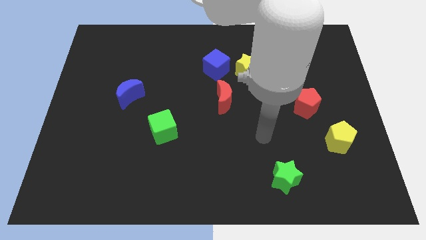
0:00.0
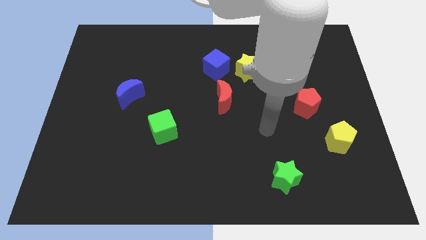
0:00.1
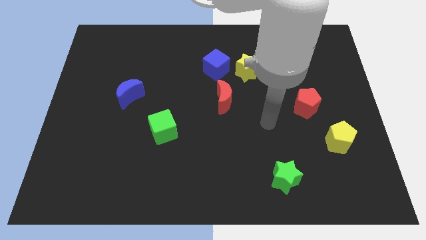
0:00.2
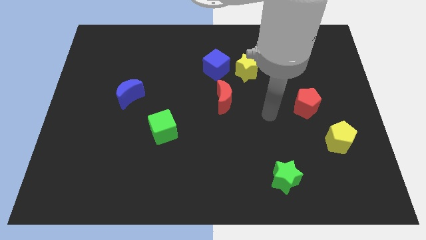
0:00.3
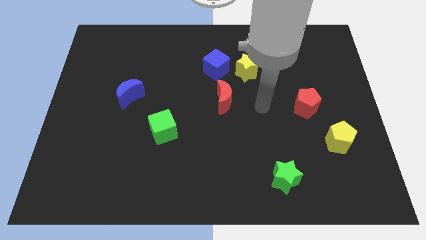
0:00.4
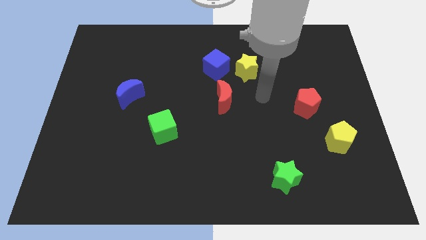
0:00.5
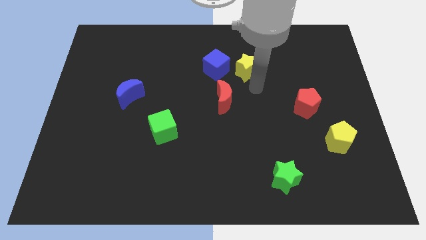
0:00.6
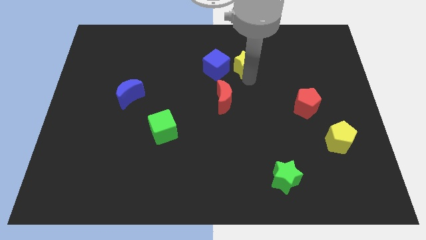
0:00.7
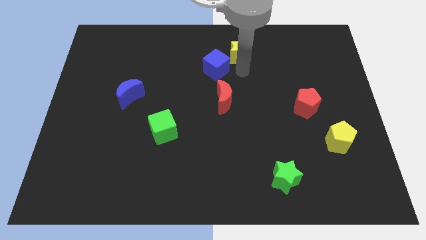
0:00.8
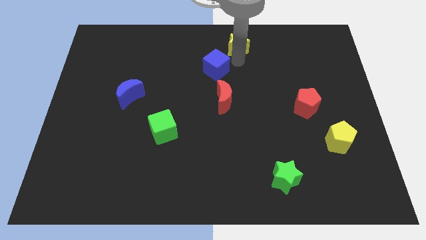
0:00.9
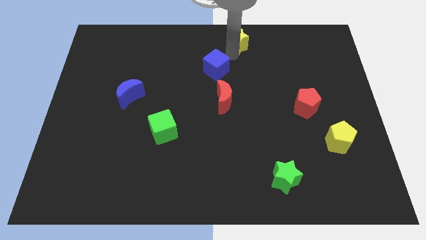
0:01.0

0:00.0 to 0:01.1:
pull the blue cube apart from the yellow star

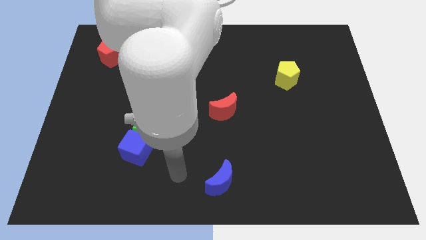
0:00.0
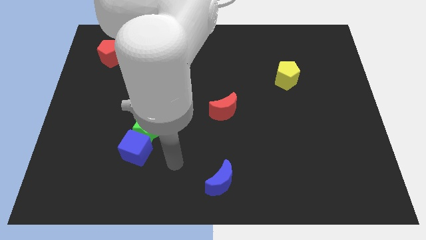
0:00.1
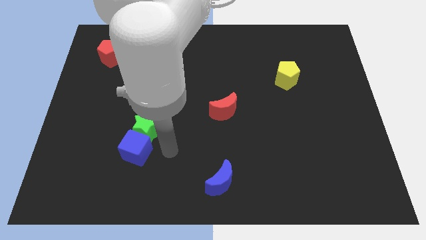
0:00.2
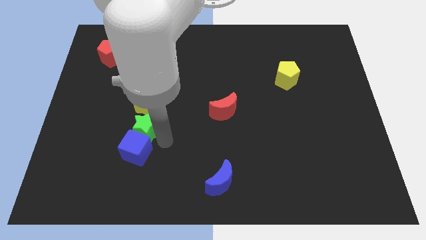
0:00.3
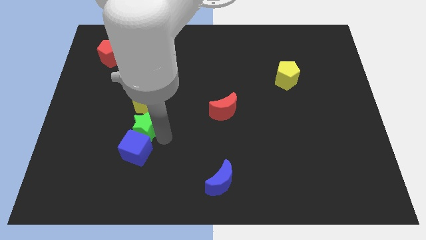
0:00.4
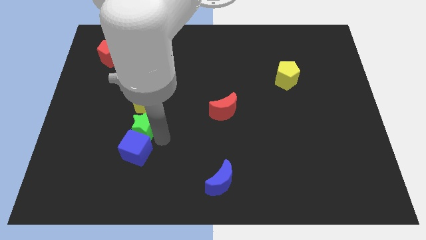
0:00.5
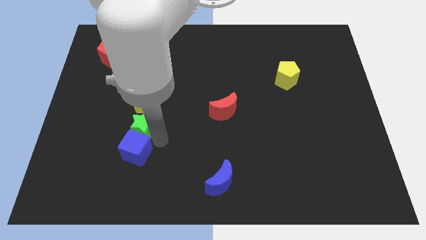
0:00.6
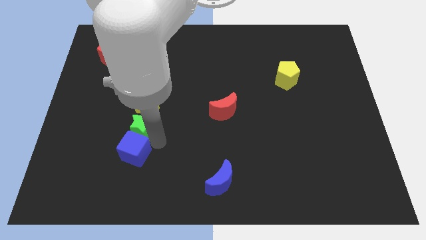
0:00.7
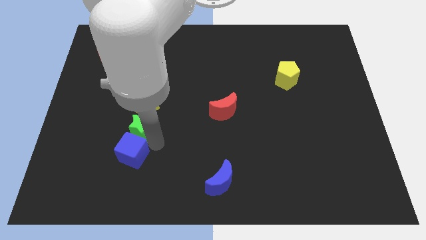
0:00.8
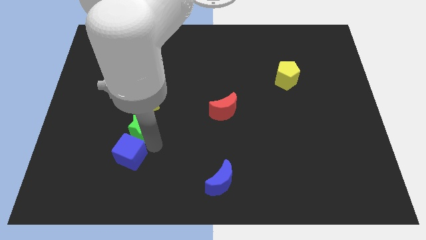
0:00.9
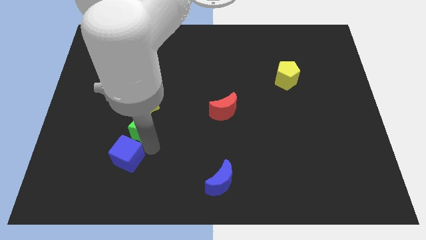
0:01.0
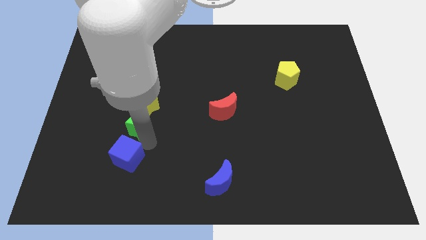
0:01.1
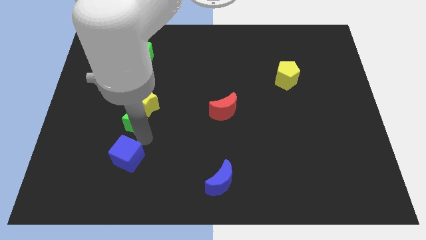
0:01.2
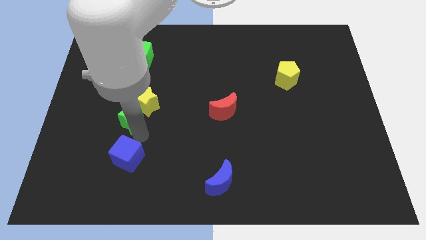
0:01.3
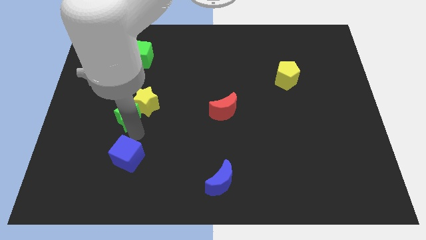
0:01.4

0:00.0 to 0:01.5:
move the blue cube away from the green star

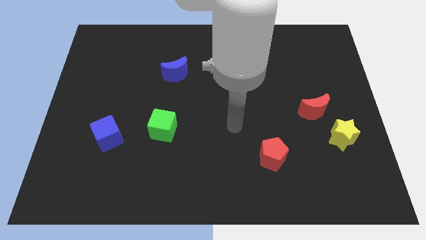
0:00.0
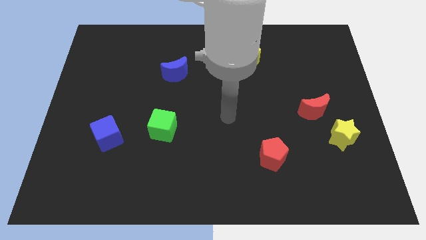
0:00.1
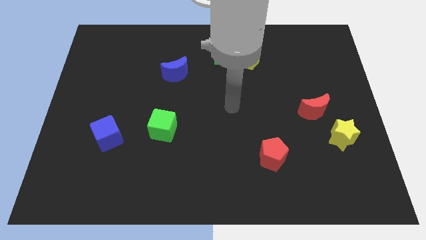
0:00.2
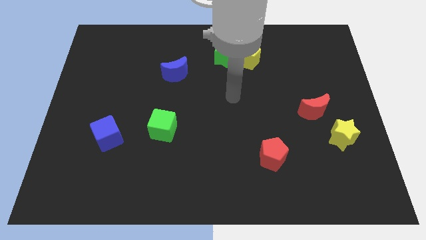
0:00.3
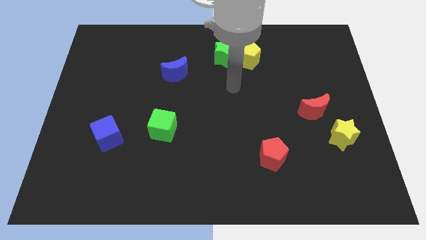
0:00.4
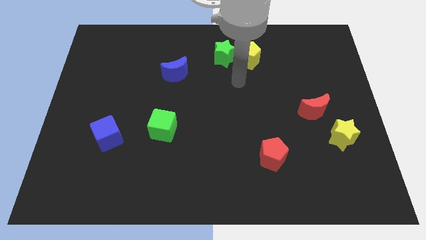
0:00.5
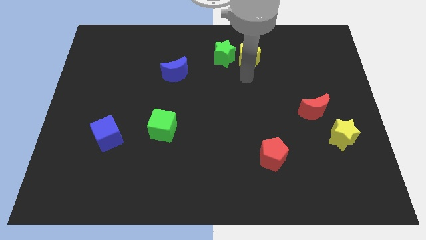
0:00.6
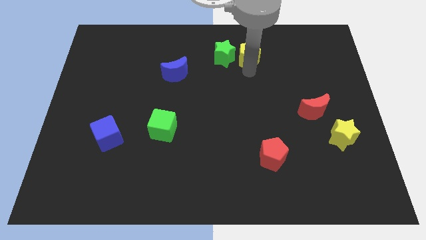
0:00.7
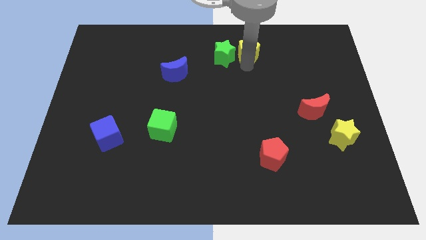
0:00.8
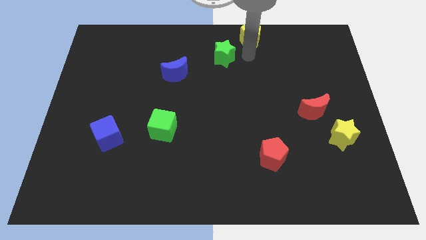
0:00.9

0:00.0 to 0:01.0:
move the green star away from the yellow pentagon

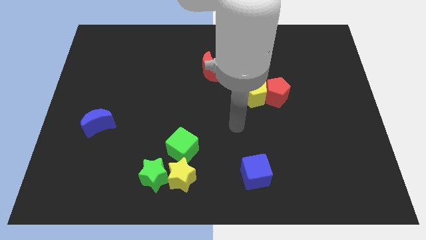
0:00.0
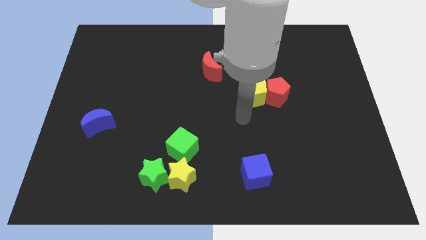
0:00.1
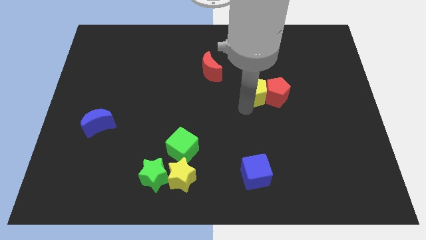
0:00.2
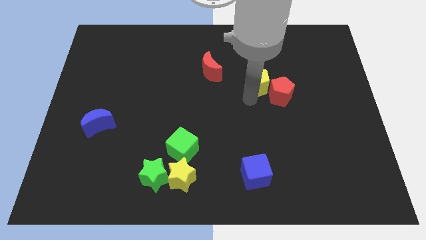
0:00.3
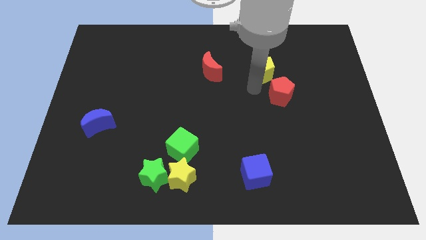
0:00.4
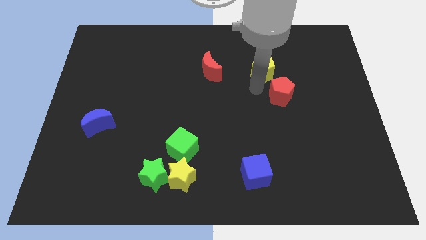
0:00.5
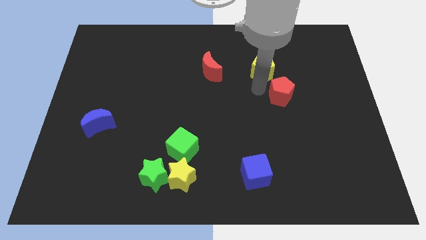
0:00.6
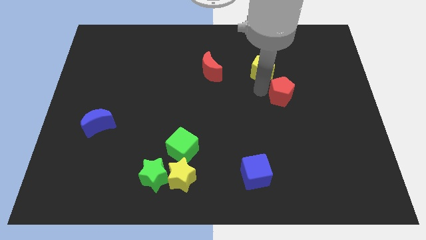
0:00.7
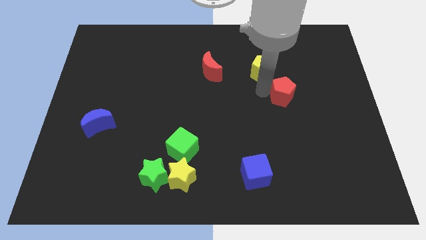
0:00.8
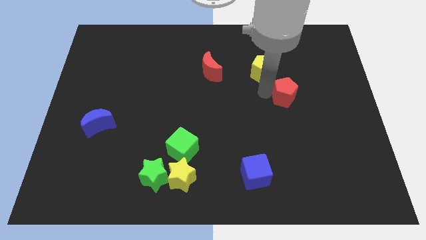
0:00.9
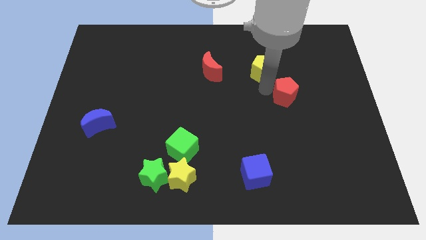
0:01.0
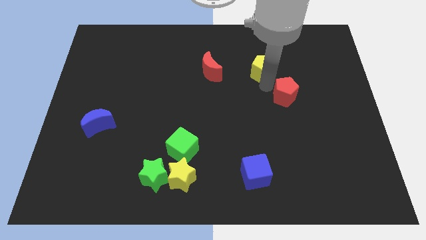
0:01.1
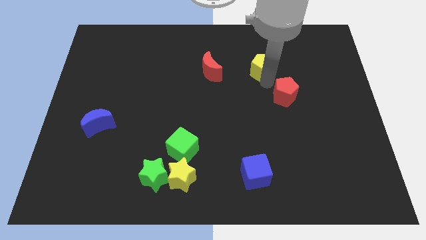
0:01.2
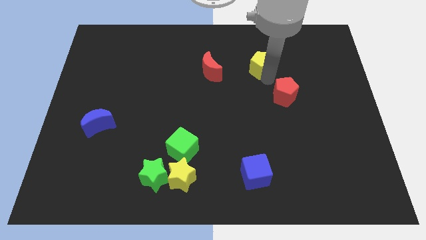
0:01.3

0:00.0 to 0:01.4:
separate the red pentagon from the yellow pentagon

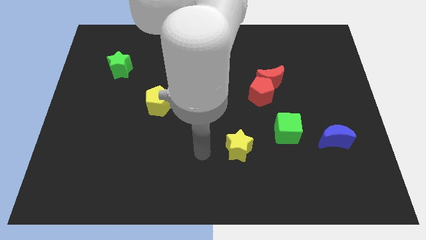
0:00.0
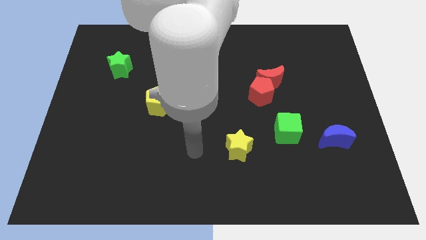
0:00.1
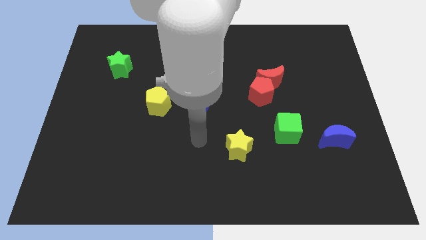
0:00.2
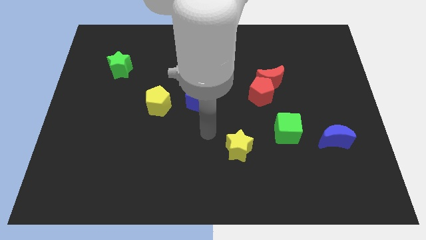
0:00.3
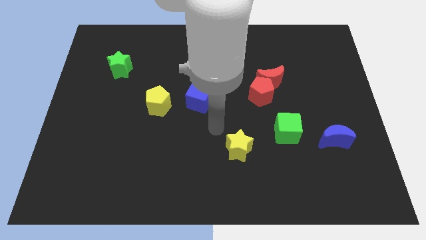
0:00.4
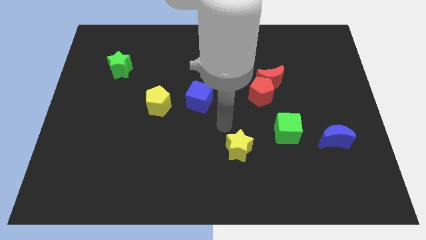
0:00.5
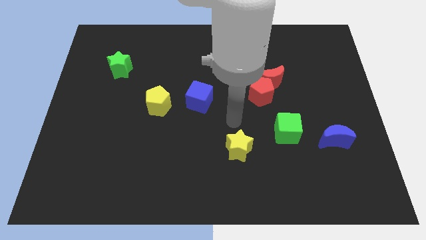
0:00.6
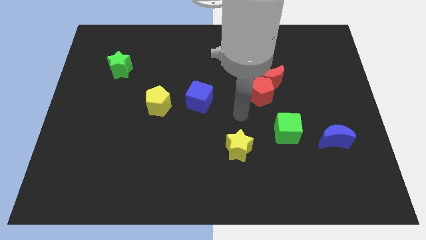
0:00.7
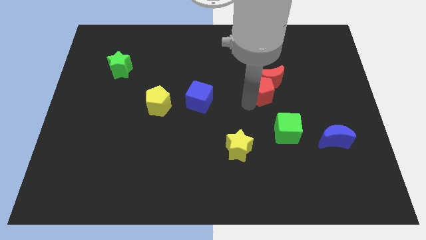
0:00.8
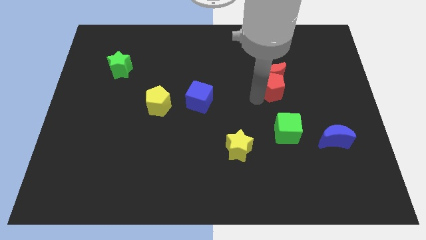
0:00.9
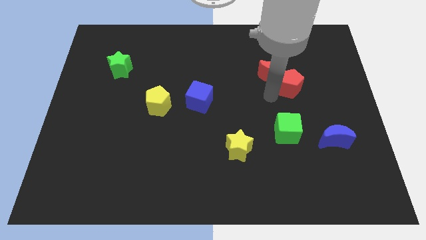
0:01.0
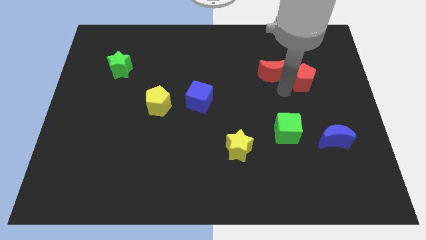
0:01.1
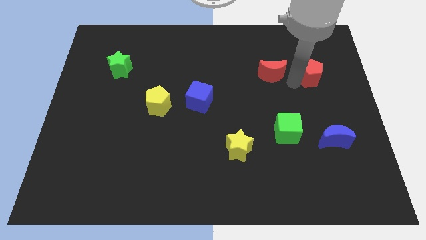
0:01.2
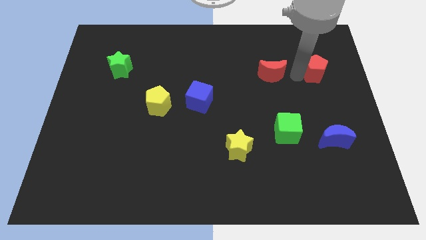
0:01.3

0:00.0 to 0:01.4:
pull the red moon apart from the red pentagon

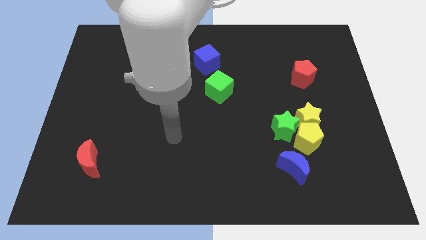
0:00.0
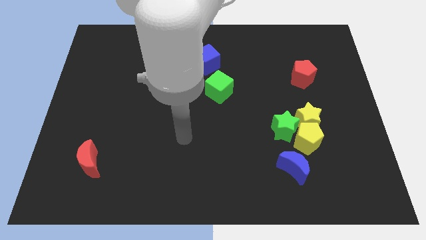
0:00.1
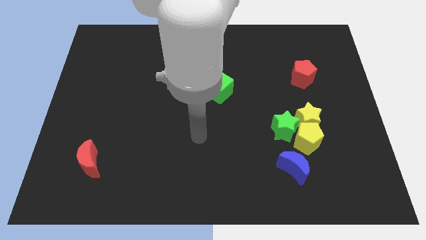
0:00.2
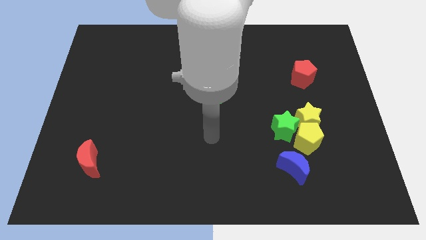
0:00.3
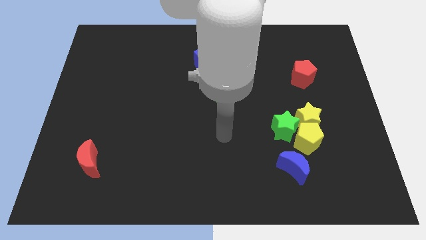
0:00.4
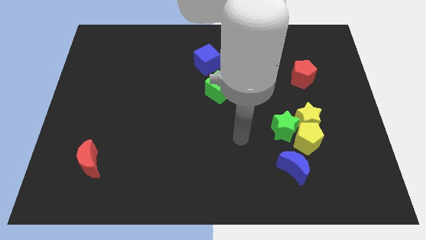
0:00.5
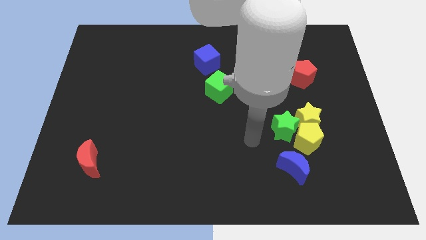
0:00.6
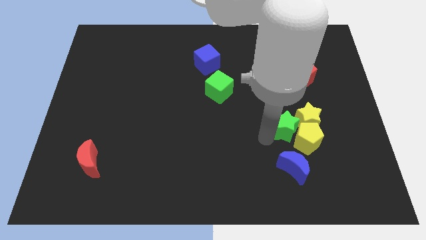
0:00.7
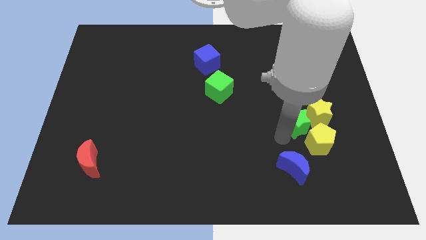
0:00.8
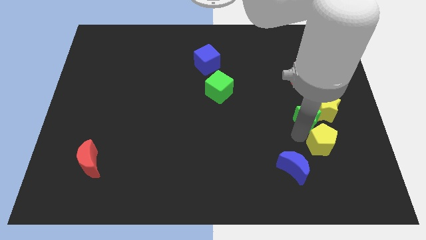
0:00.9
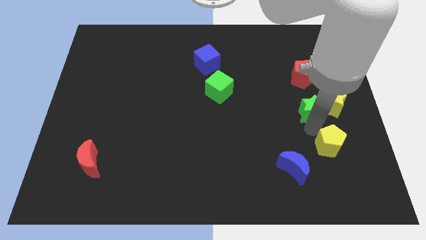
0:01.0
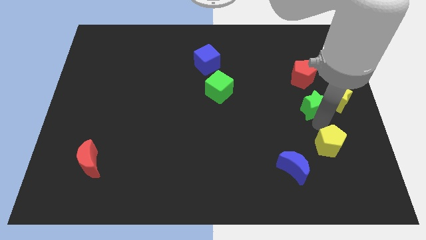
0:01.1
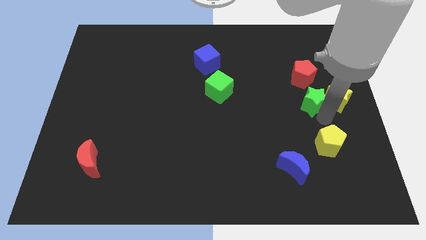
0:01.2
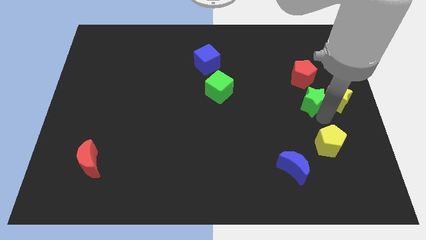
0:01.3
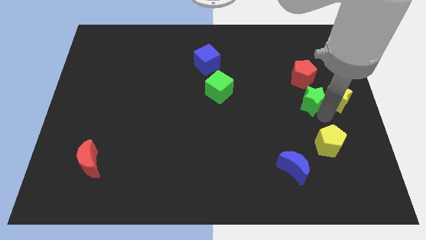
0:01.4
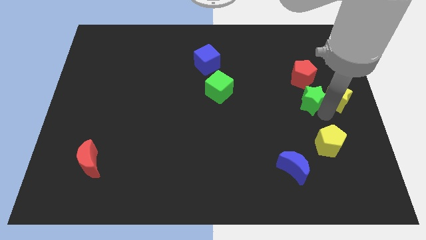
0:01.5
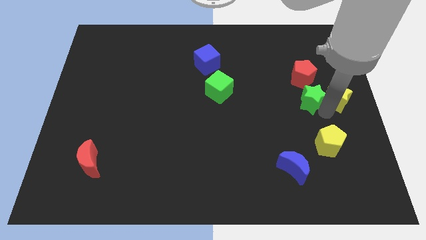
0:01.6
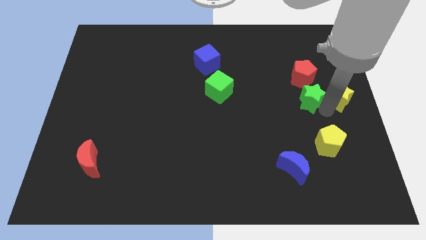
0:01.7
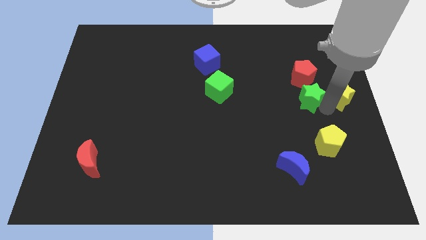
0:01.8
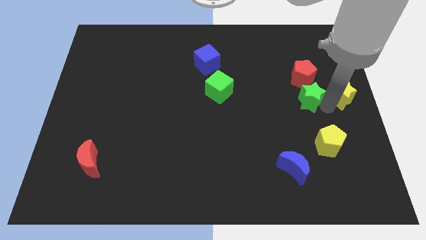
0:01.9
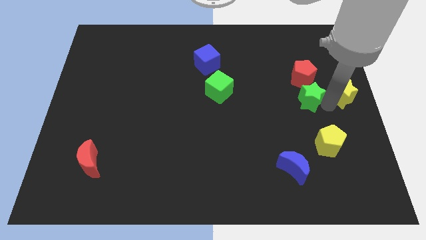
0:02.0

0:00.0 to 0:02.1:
separate the yellow star from the yellow pentagon and green star

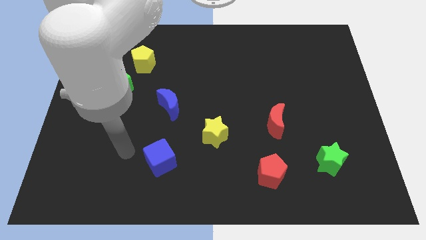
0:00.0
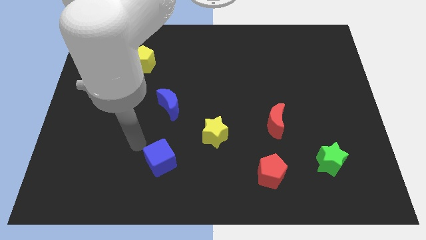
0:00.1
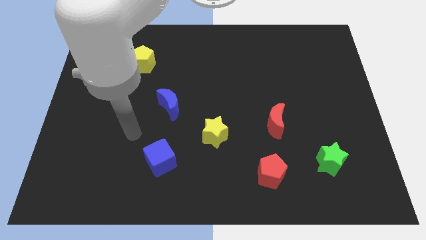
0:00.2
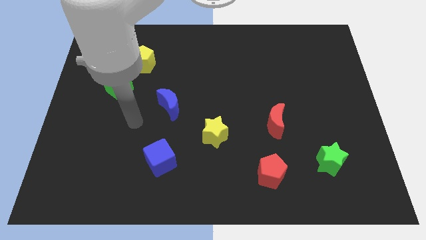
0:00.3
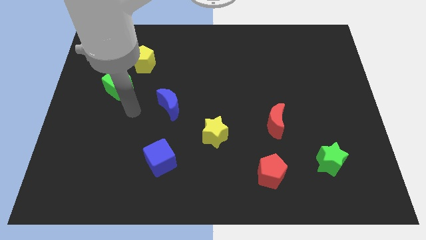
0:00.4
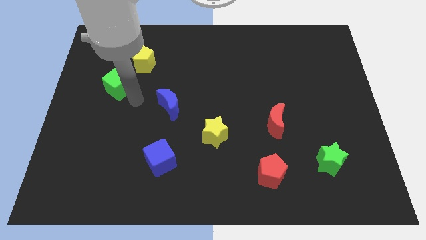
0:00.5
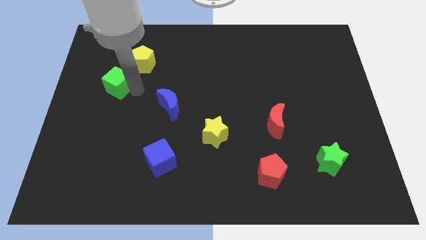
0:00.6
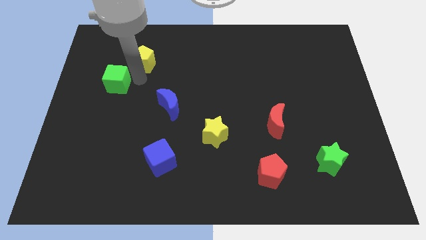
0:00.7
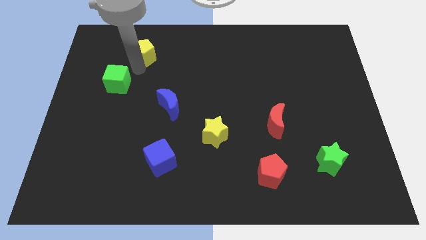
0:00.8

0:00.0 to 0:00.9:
separate the green cube from the yellow pentagon
